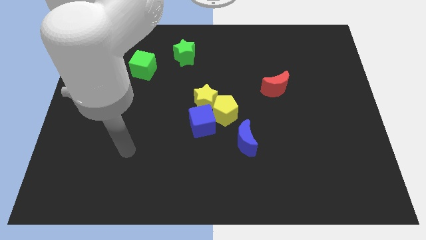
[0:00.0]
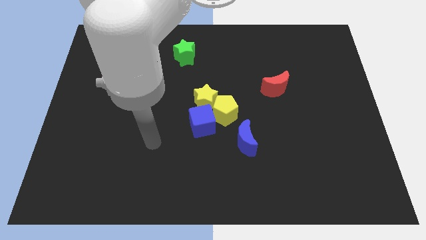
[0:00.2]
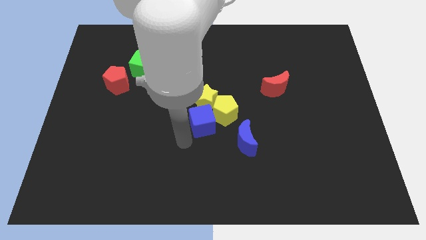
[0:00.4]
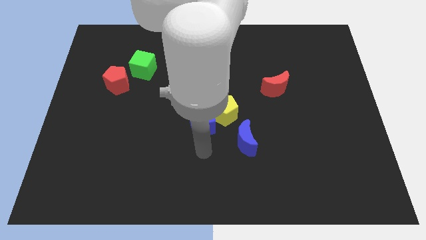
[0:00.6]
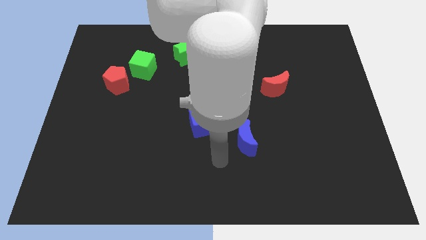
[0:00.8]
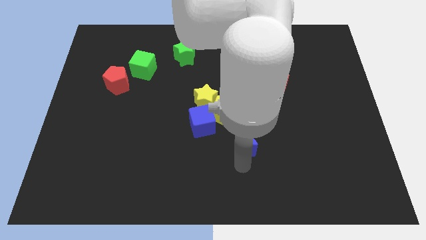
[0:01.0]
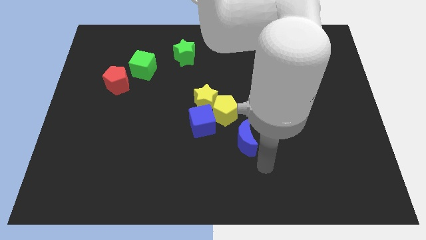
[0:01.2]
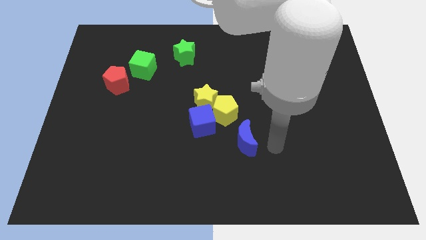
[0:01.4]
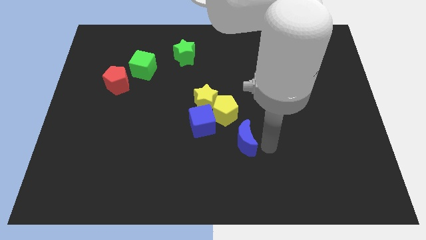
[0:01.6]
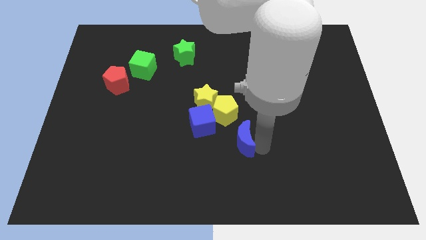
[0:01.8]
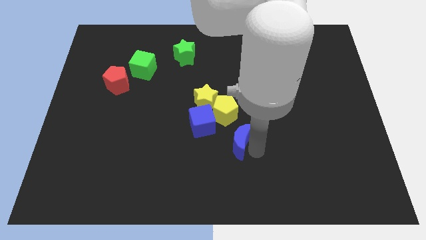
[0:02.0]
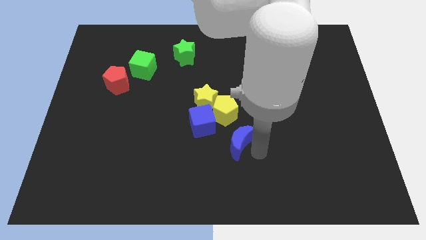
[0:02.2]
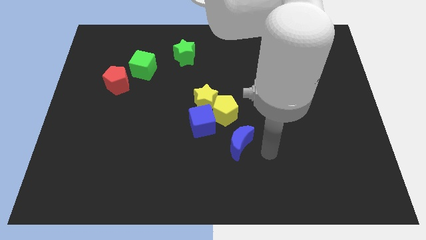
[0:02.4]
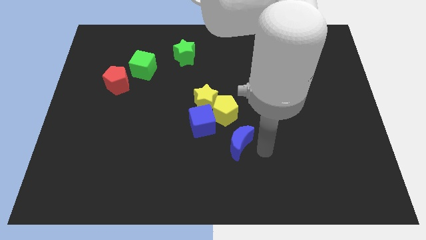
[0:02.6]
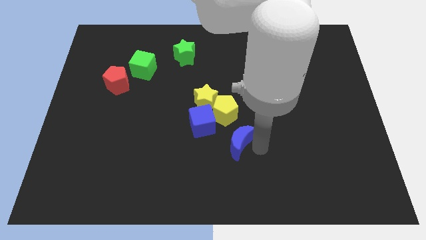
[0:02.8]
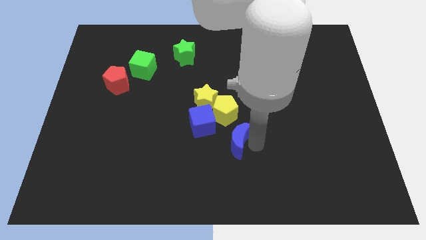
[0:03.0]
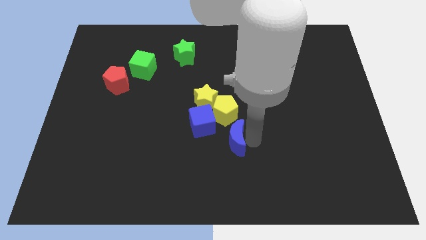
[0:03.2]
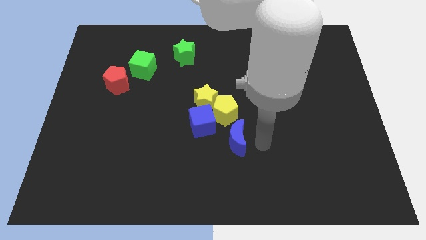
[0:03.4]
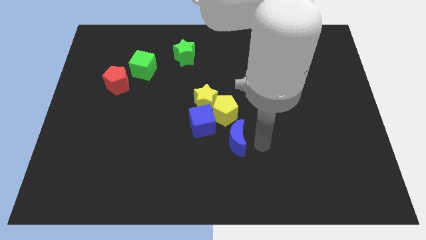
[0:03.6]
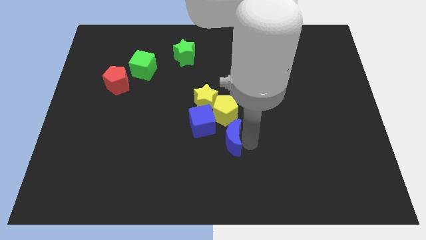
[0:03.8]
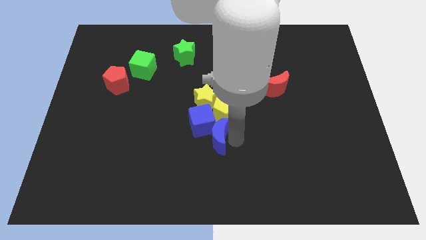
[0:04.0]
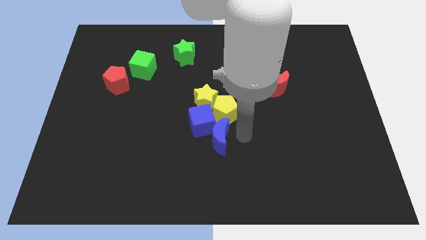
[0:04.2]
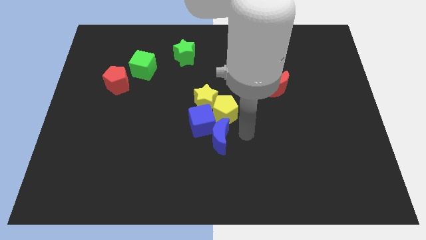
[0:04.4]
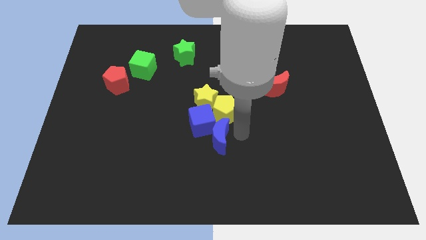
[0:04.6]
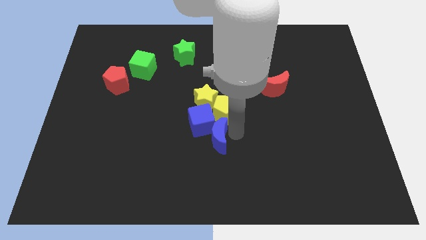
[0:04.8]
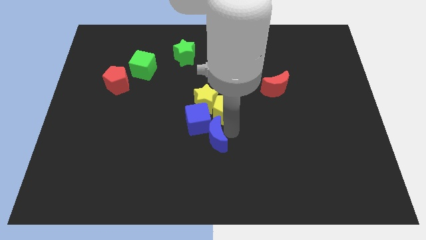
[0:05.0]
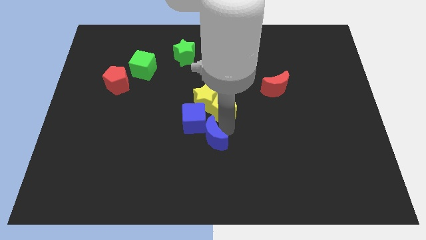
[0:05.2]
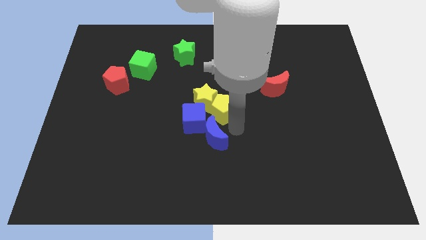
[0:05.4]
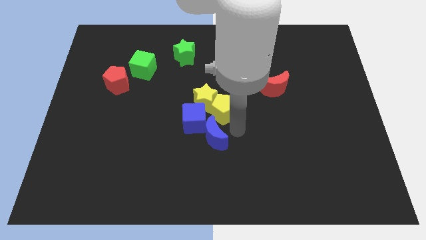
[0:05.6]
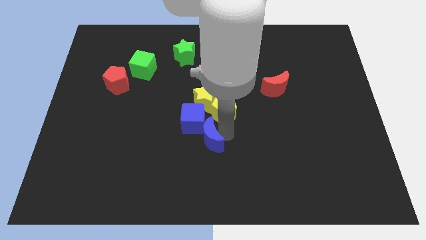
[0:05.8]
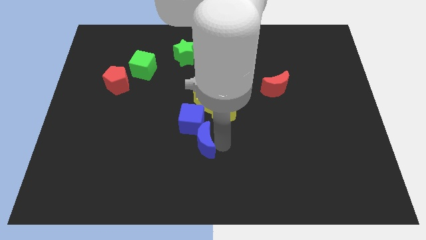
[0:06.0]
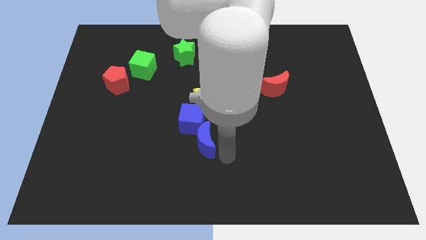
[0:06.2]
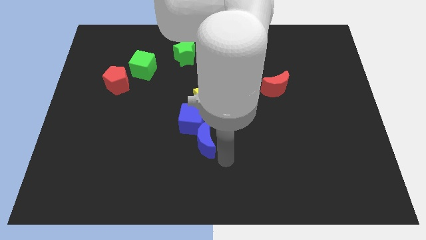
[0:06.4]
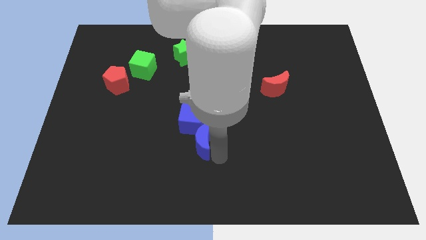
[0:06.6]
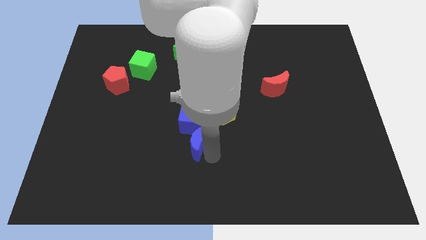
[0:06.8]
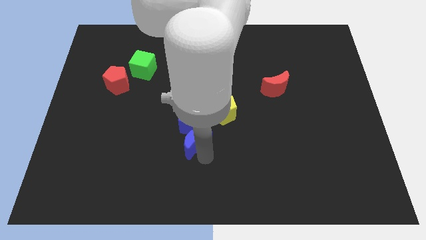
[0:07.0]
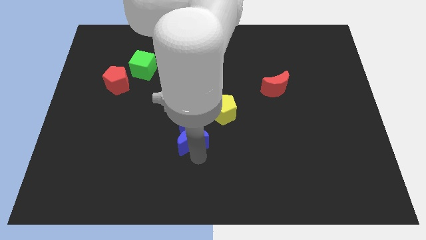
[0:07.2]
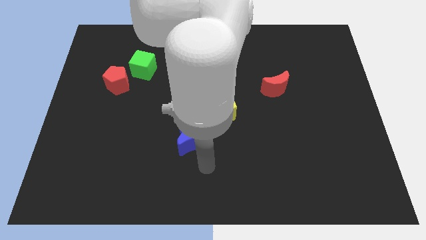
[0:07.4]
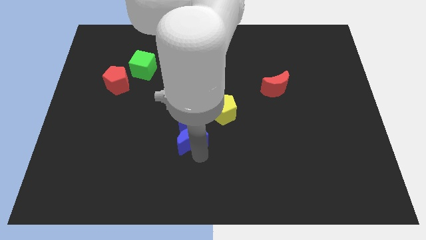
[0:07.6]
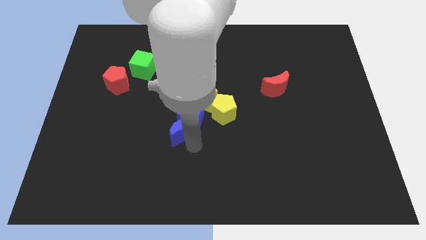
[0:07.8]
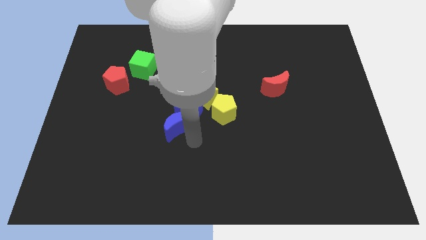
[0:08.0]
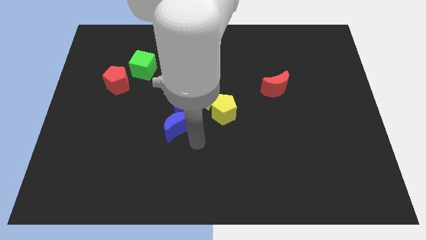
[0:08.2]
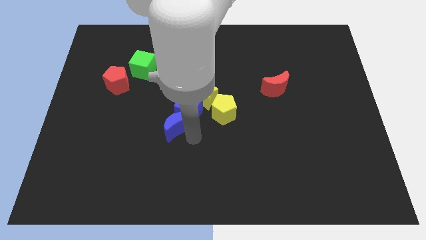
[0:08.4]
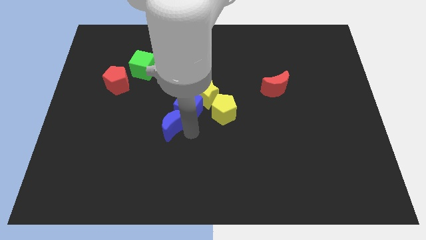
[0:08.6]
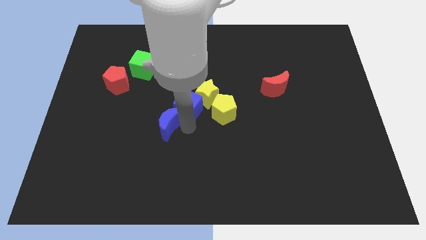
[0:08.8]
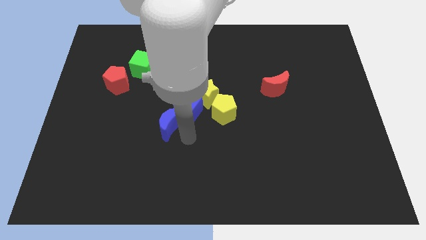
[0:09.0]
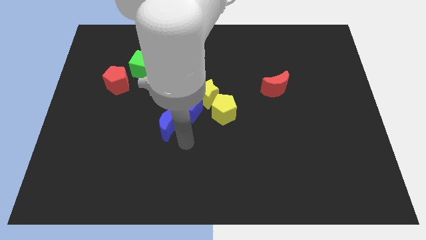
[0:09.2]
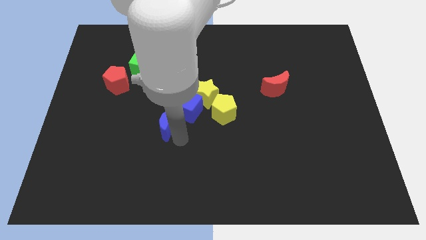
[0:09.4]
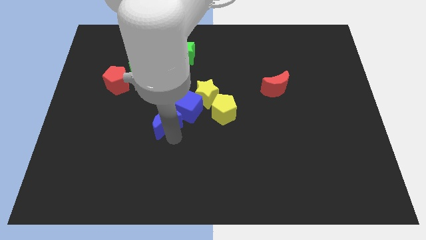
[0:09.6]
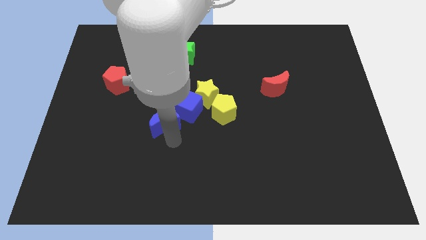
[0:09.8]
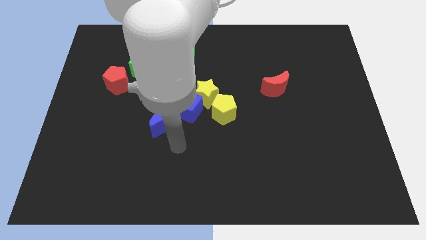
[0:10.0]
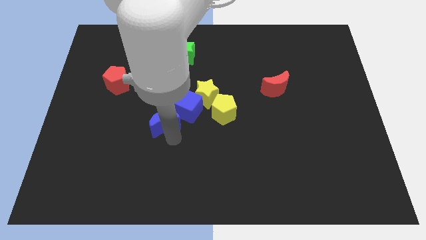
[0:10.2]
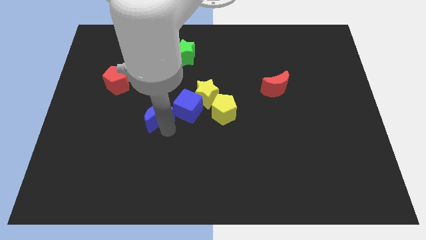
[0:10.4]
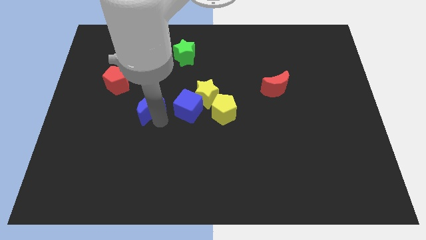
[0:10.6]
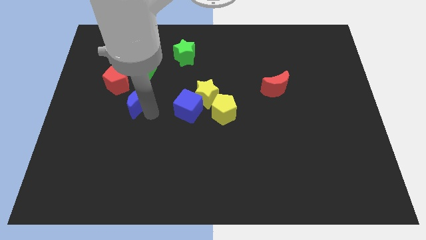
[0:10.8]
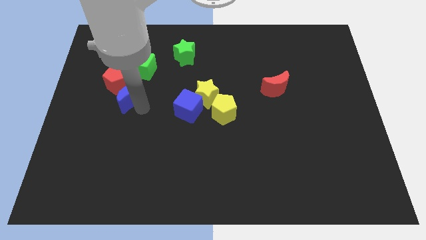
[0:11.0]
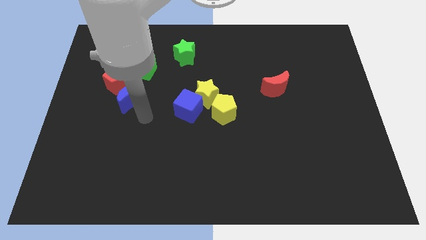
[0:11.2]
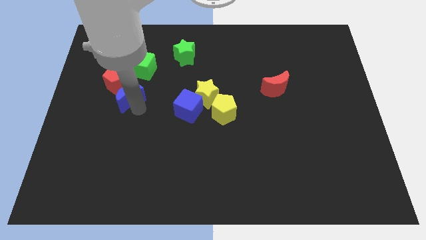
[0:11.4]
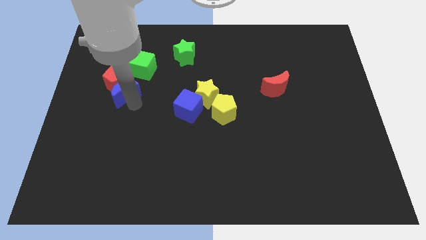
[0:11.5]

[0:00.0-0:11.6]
move the blue moon to the red pentagon

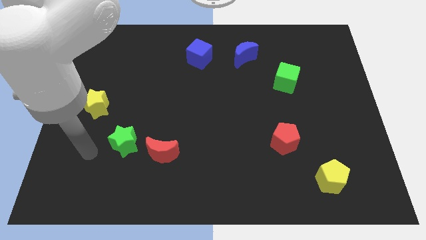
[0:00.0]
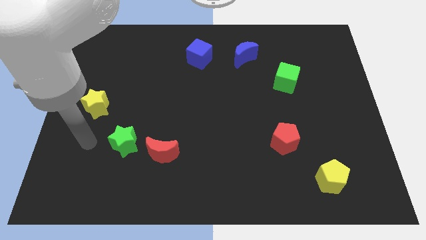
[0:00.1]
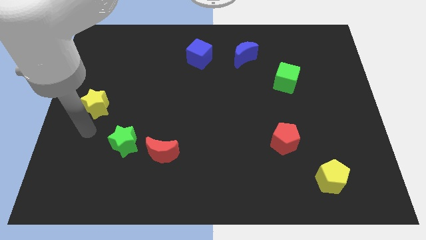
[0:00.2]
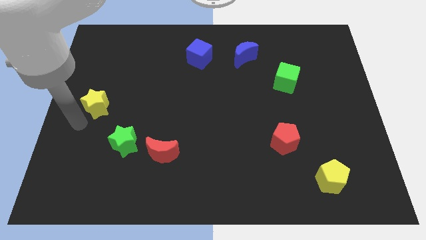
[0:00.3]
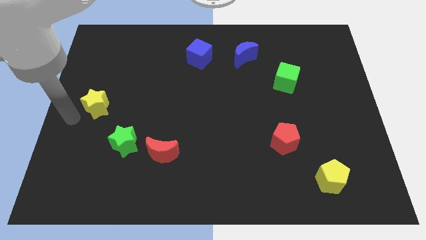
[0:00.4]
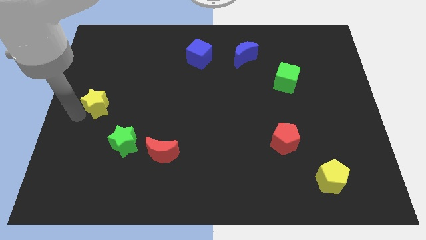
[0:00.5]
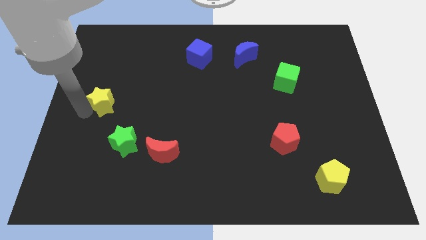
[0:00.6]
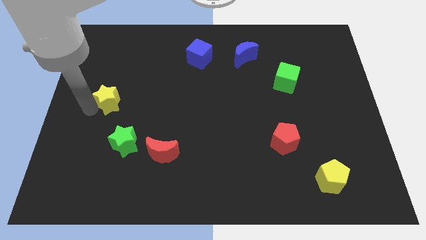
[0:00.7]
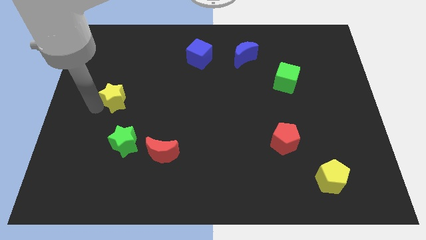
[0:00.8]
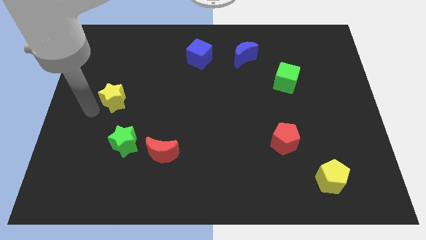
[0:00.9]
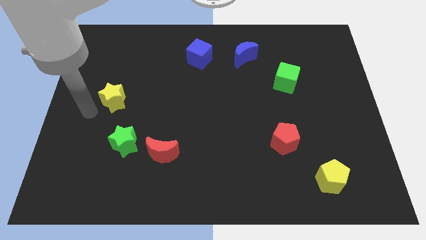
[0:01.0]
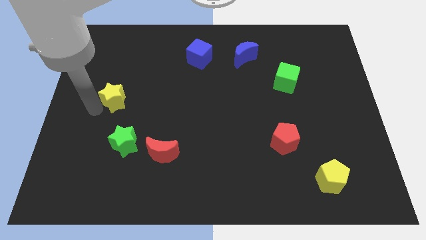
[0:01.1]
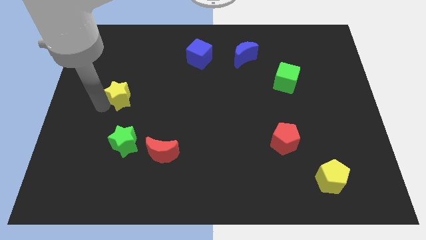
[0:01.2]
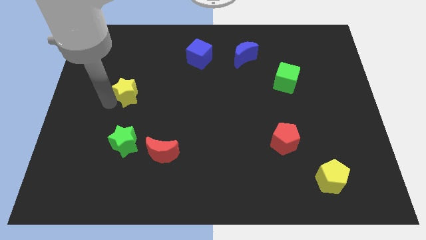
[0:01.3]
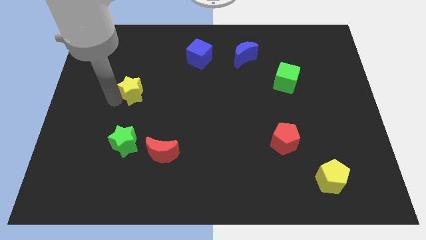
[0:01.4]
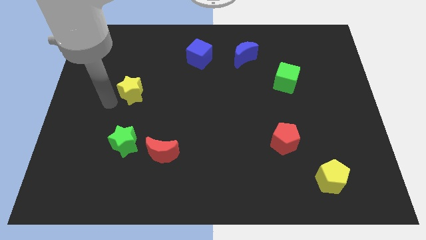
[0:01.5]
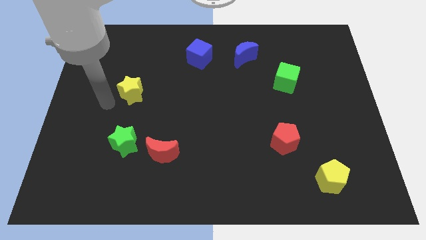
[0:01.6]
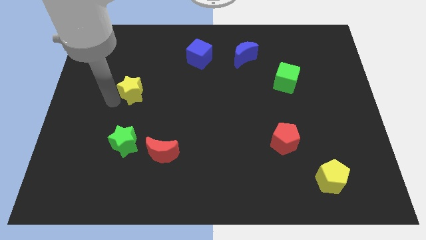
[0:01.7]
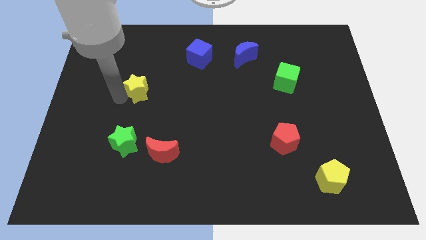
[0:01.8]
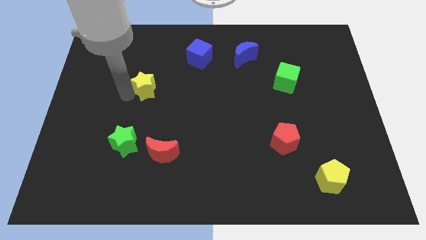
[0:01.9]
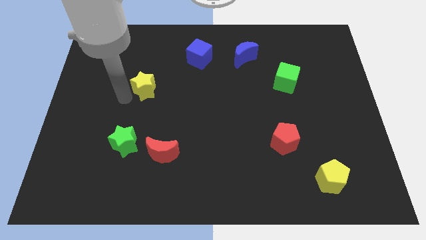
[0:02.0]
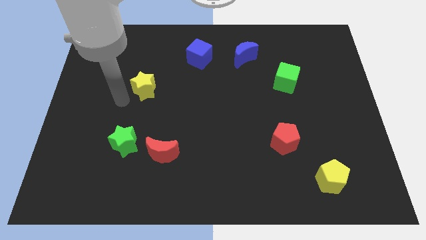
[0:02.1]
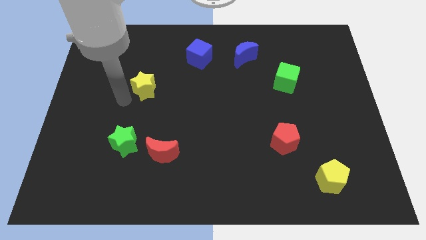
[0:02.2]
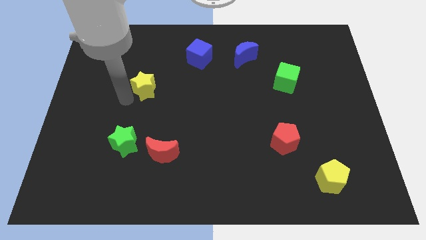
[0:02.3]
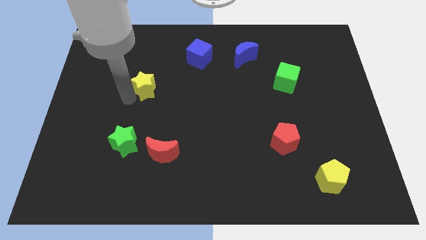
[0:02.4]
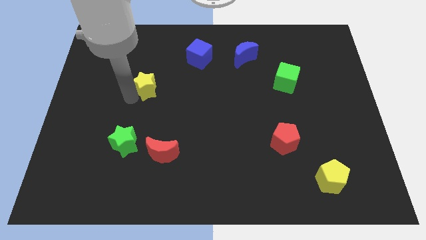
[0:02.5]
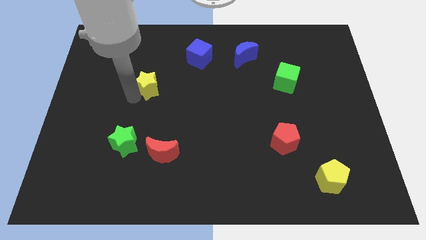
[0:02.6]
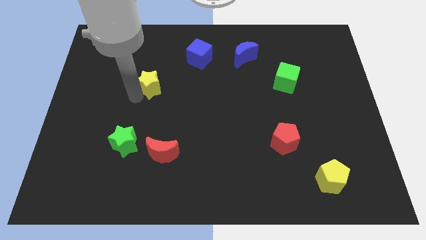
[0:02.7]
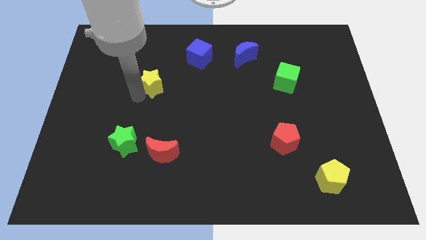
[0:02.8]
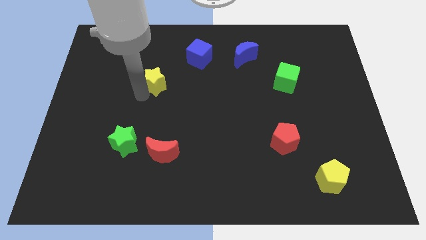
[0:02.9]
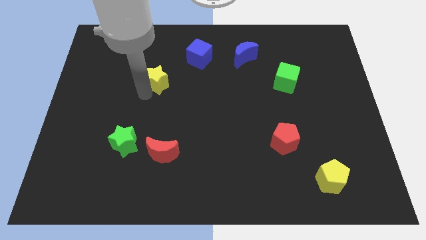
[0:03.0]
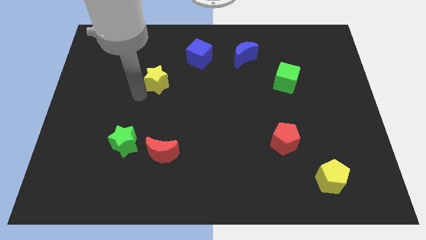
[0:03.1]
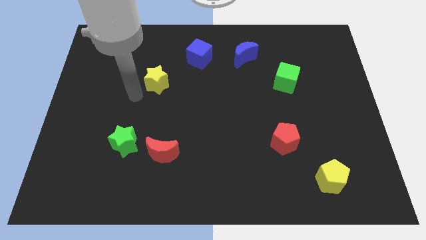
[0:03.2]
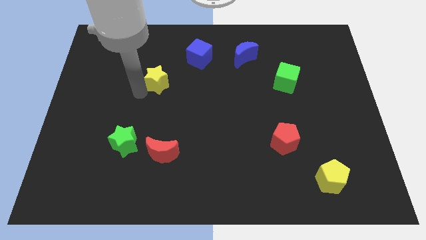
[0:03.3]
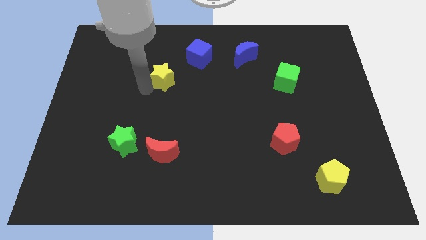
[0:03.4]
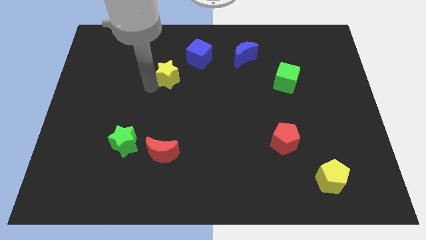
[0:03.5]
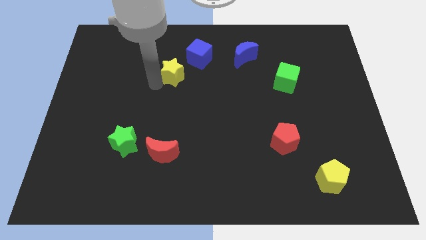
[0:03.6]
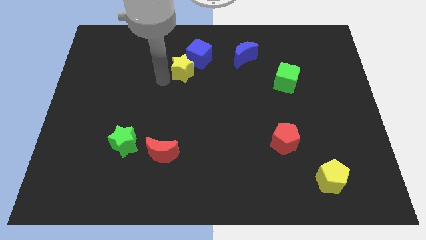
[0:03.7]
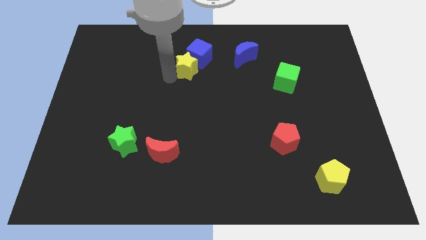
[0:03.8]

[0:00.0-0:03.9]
slide the yellow star next to the blue cube
